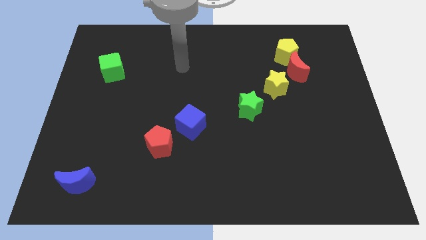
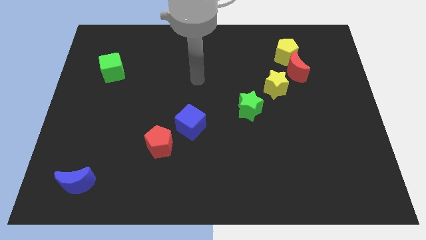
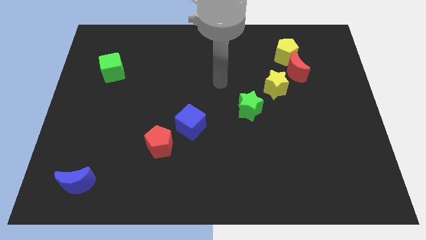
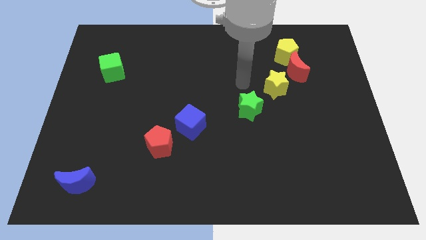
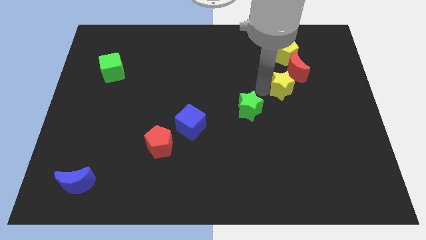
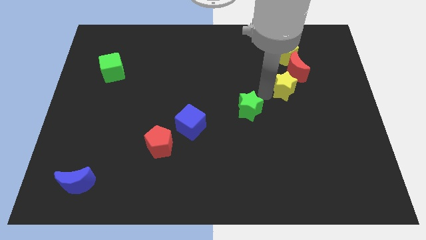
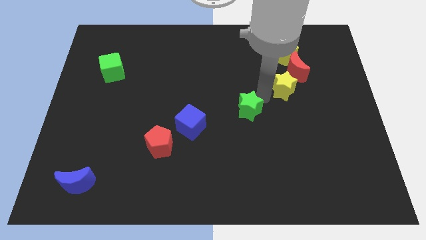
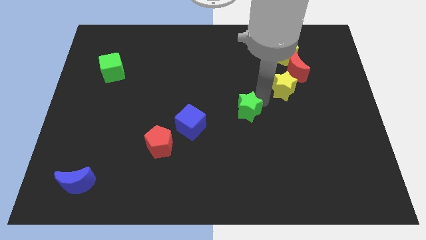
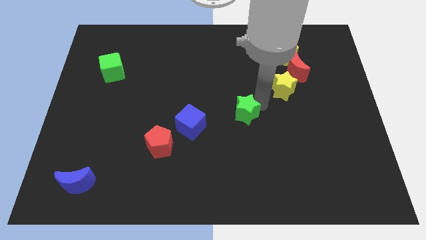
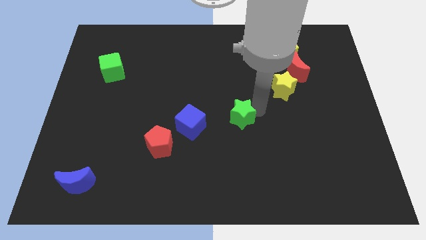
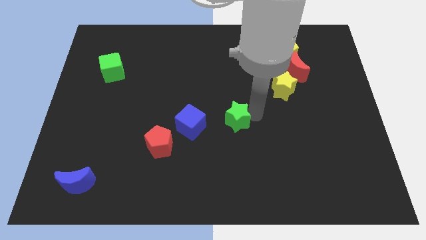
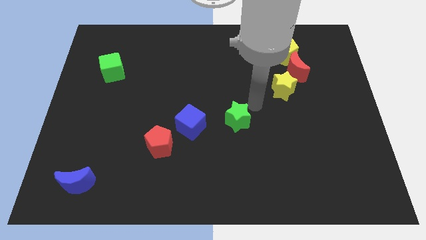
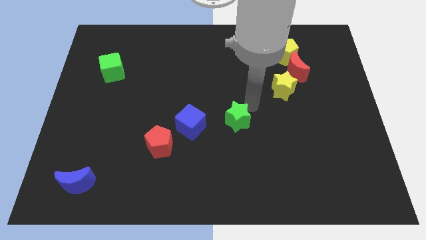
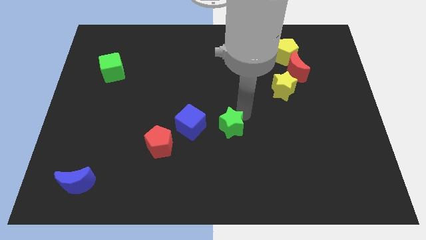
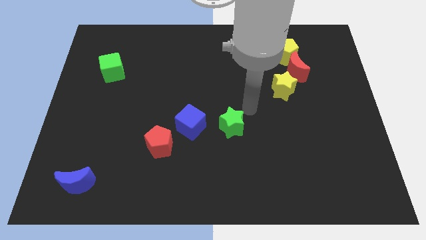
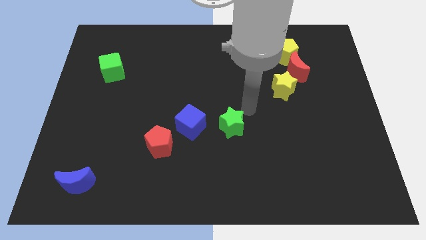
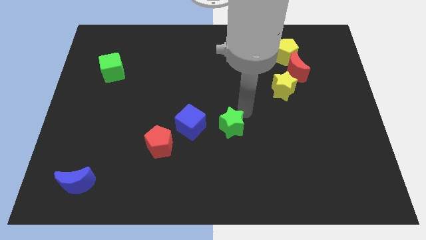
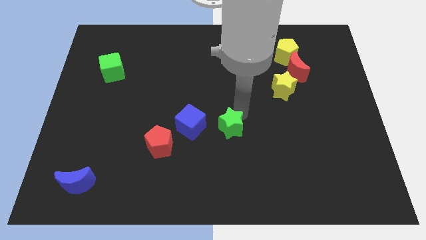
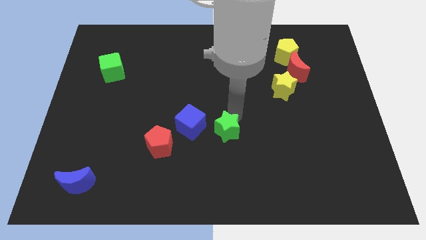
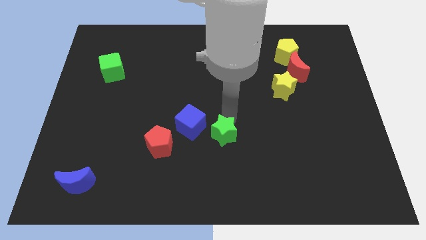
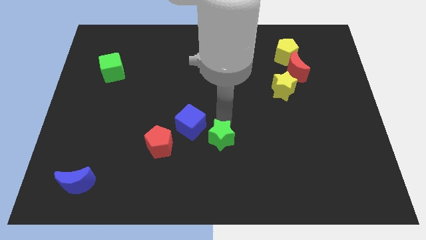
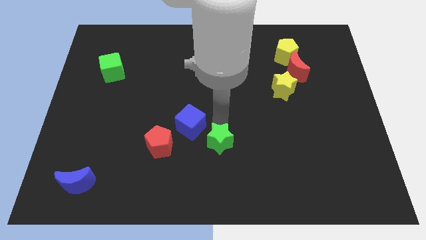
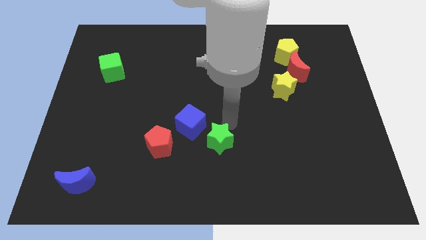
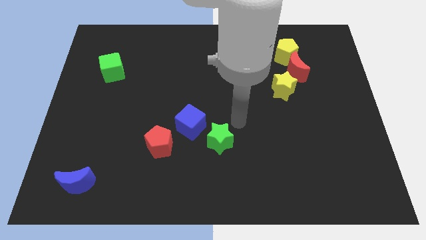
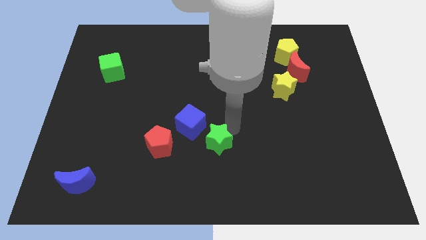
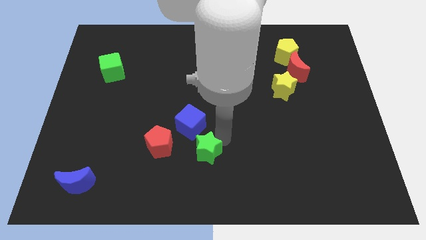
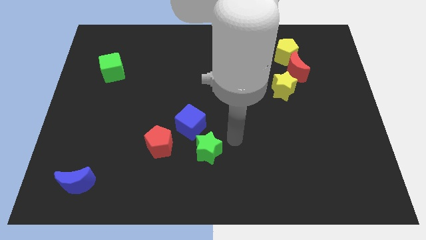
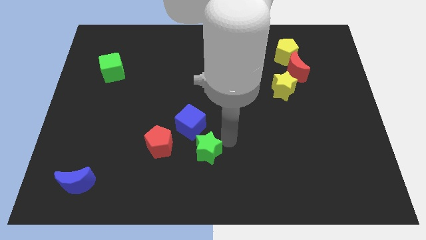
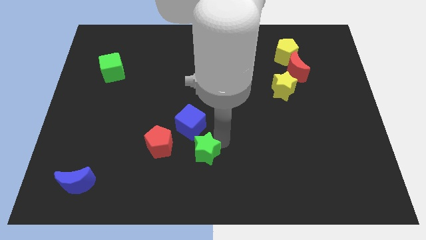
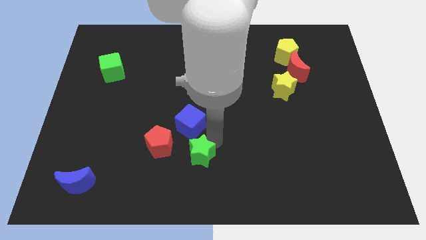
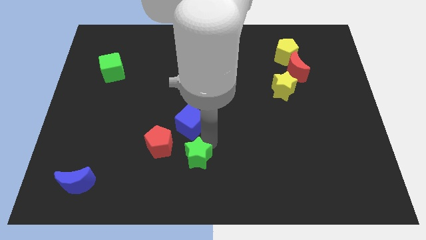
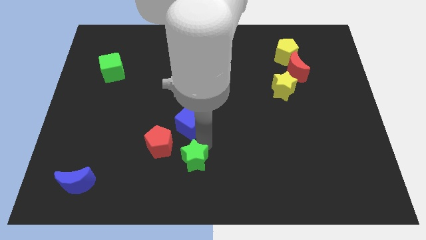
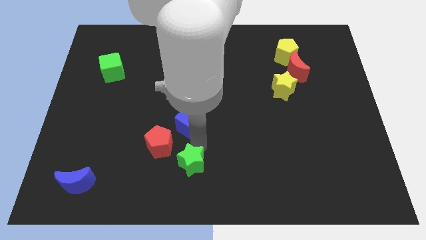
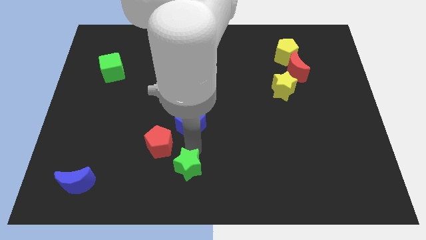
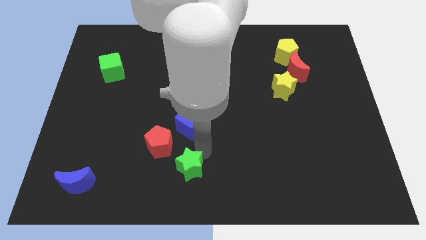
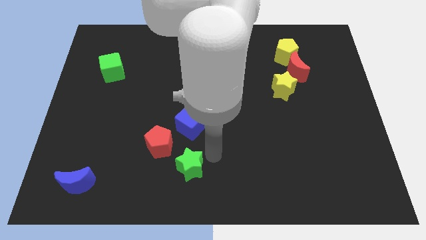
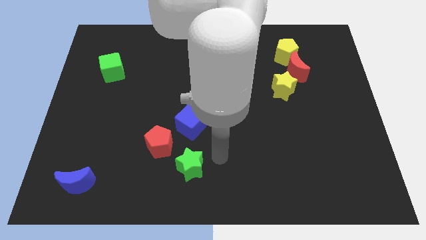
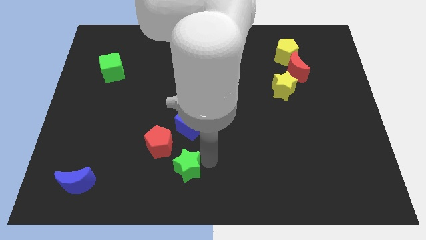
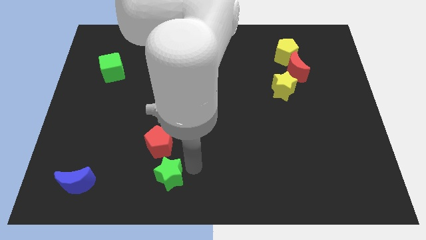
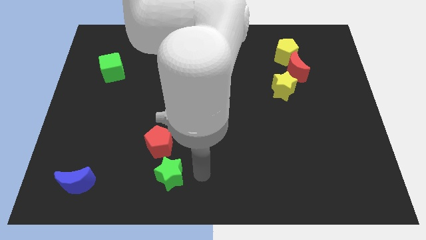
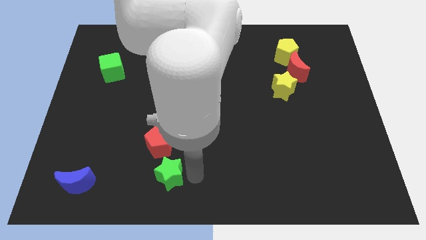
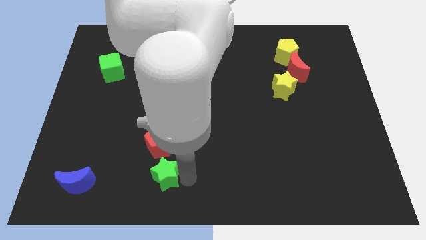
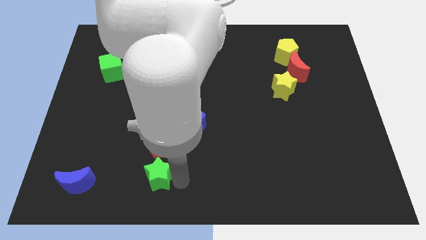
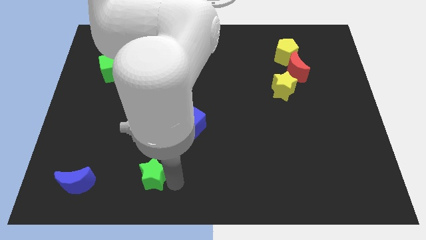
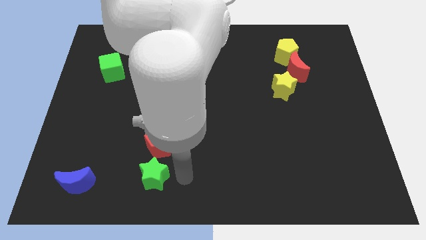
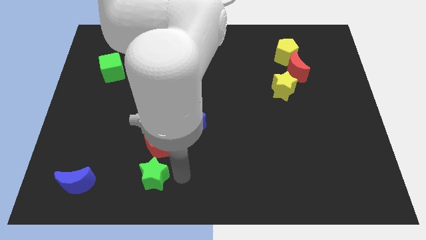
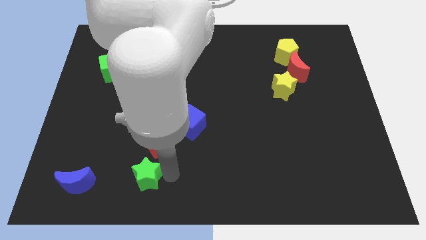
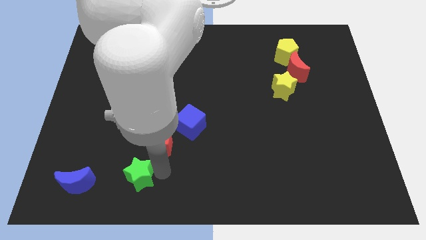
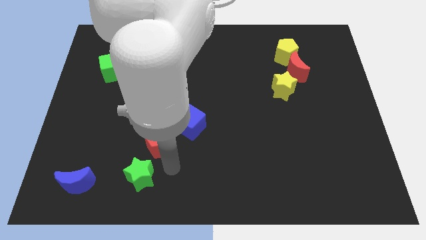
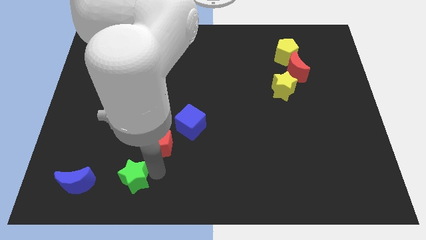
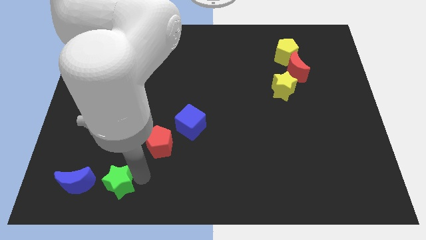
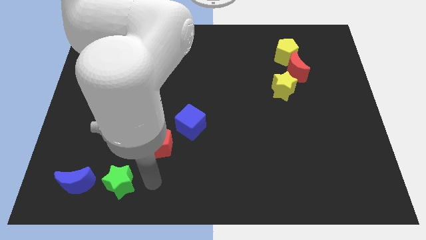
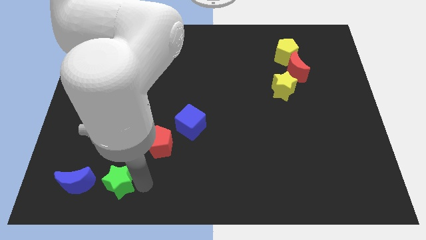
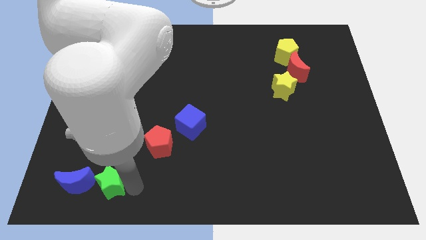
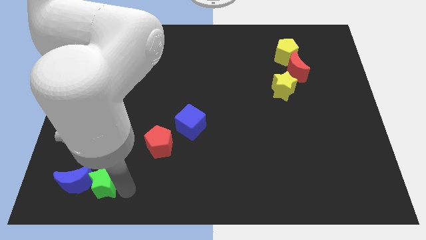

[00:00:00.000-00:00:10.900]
put the green star towards the blue moon

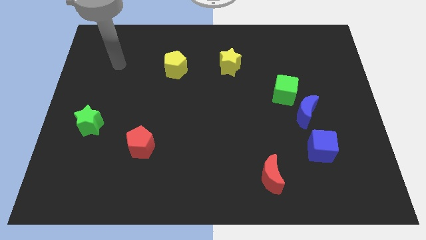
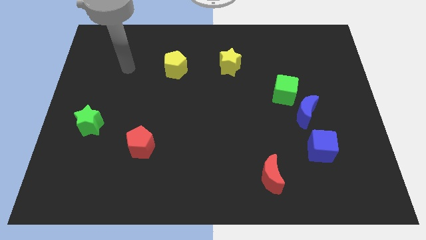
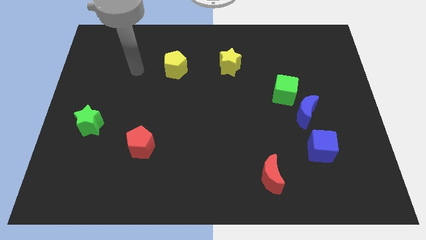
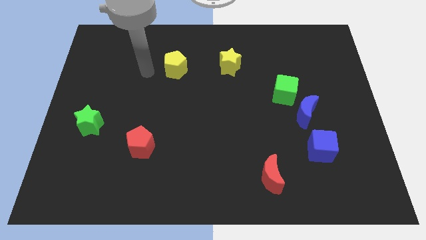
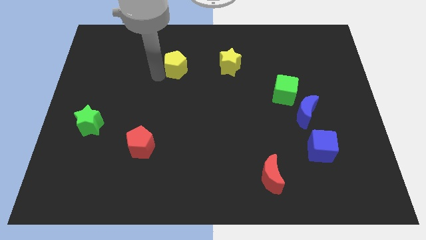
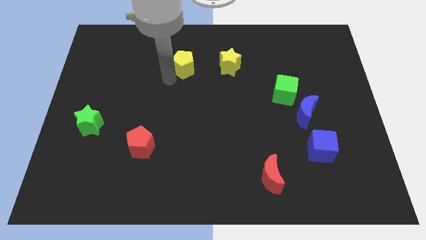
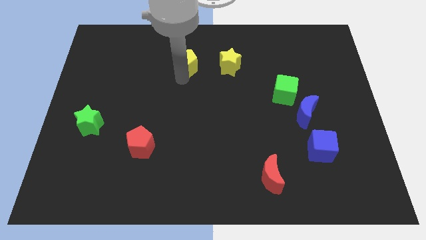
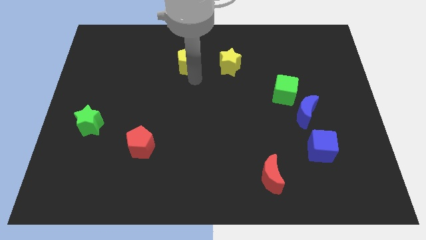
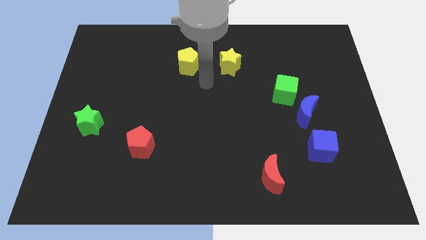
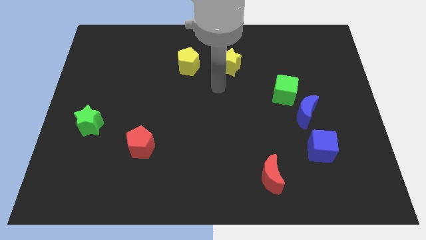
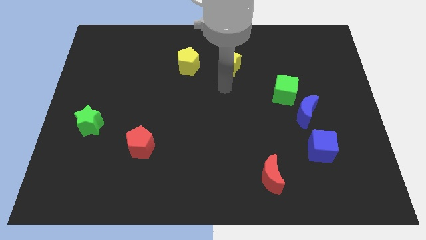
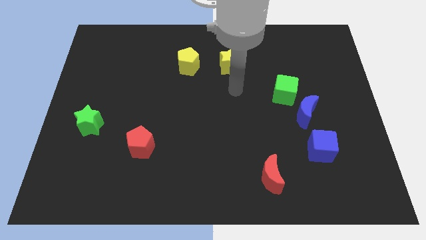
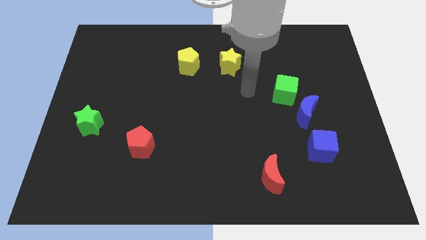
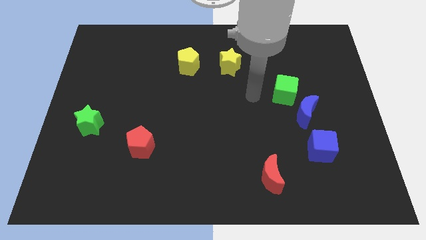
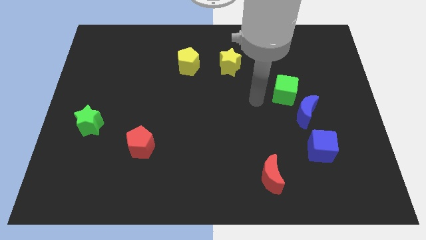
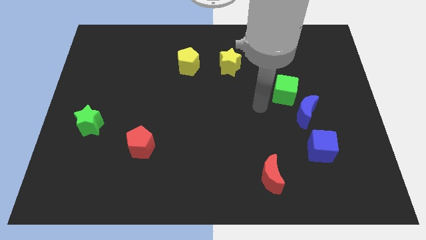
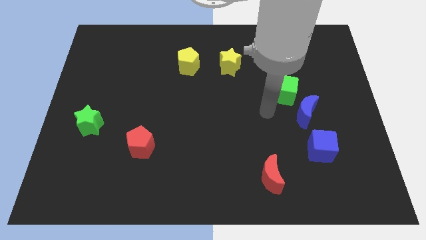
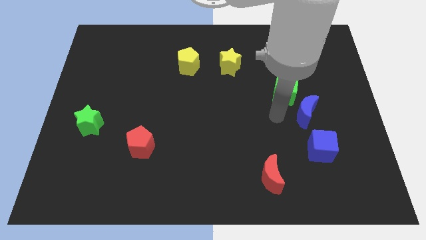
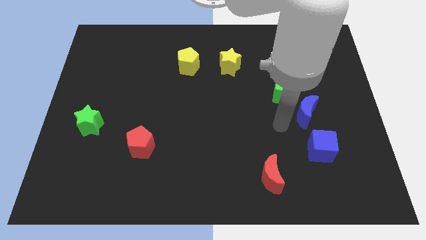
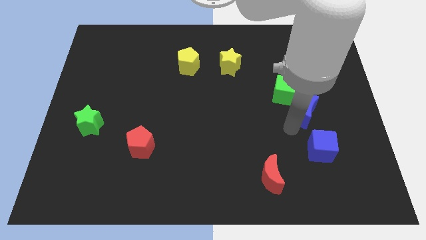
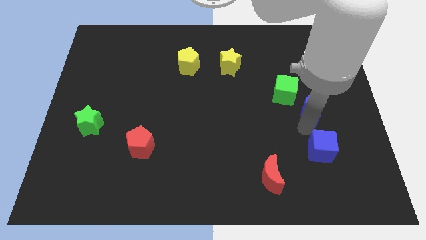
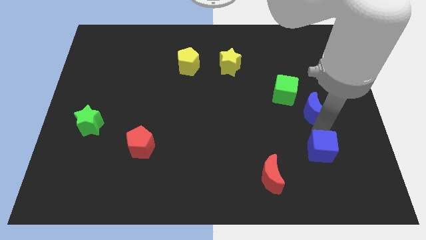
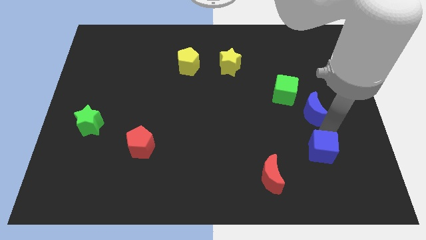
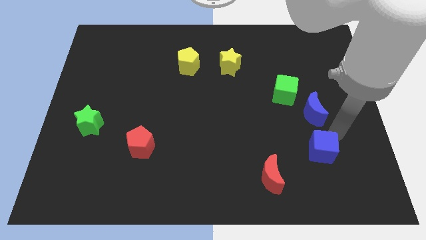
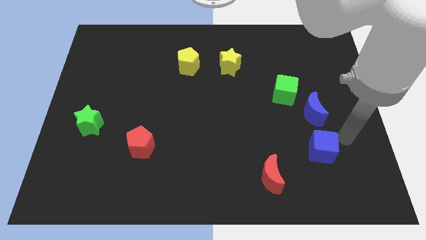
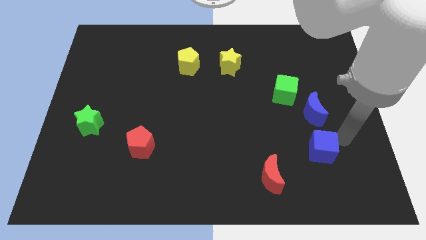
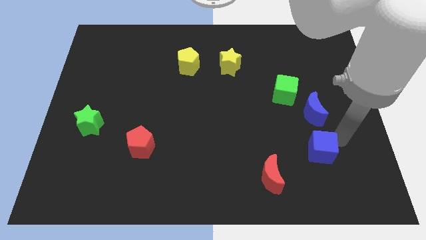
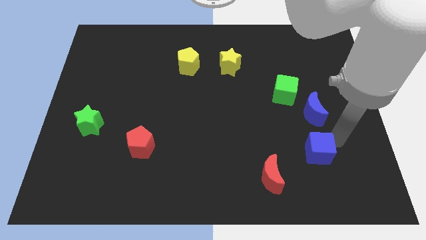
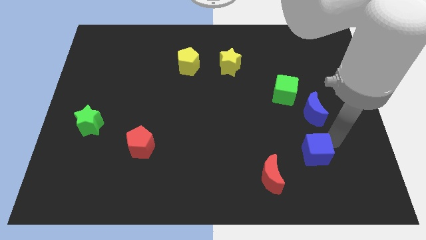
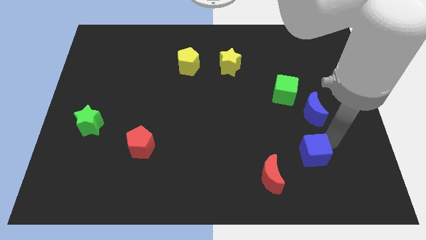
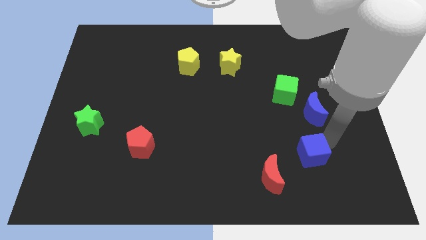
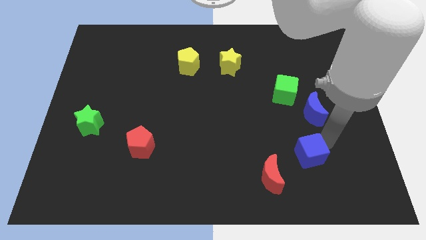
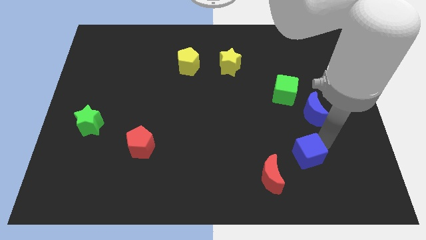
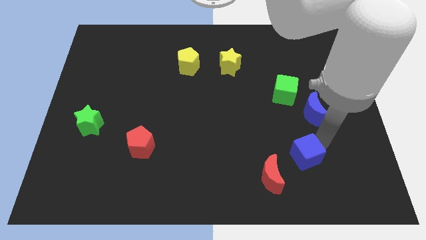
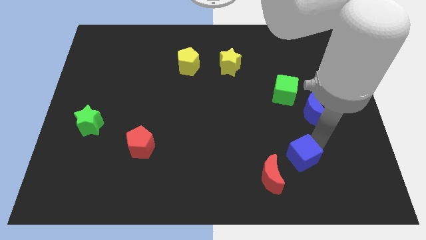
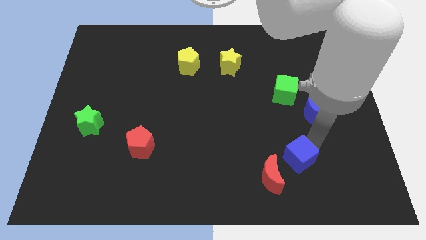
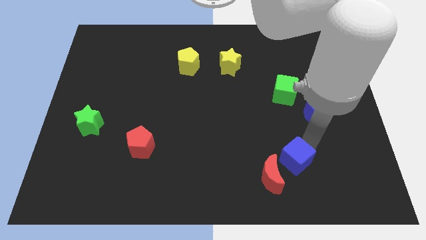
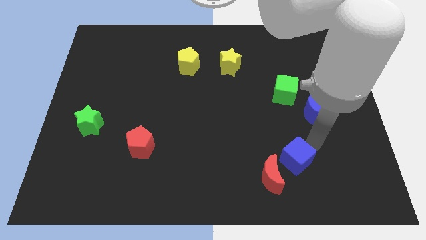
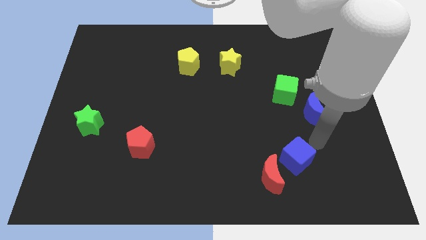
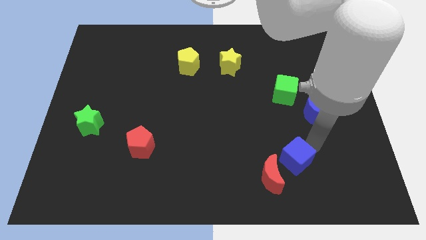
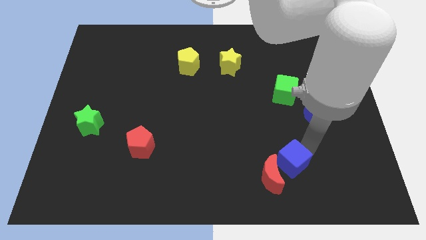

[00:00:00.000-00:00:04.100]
push the blue cube close to the red moon
